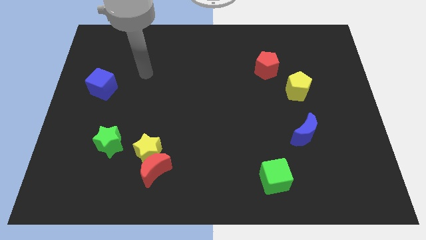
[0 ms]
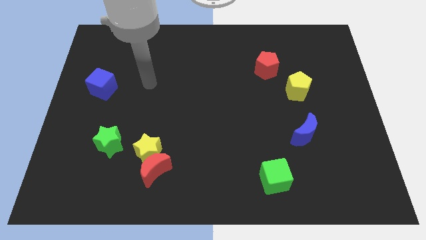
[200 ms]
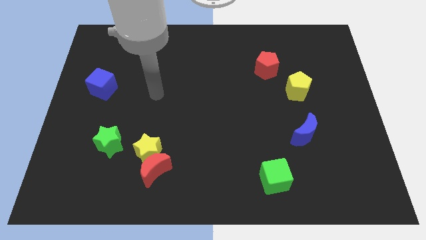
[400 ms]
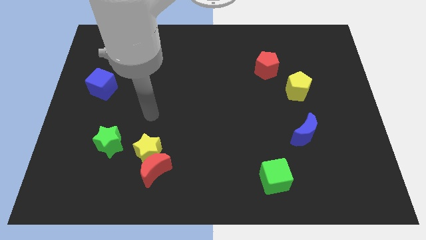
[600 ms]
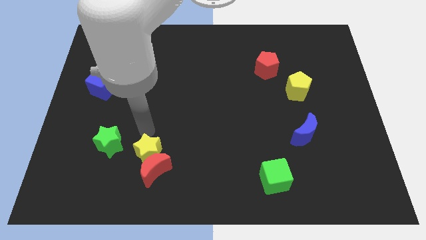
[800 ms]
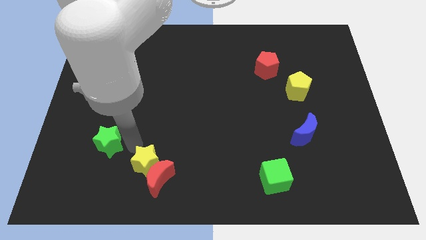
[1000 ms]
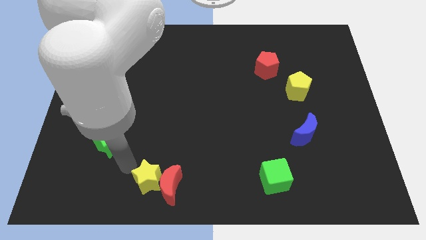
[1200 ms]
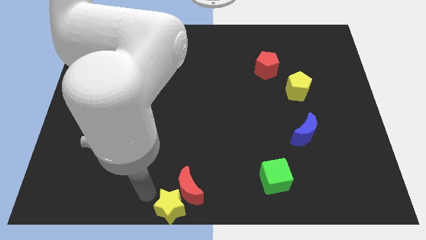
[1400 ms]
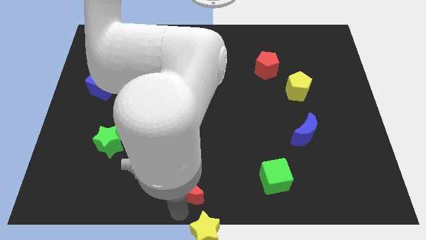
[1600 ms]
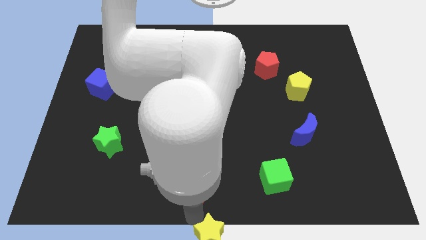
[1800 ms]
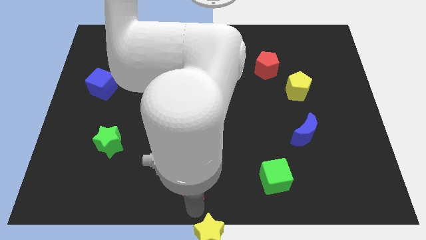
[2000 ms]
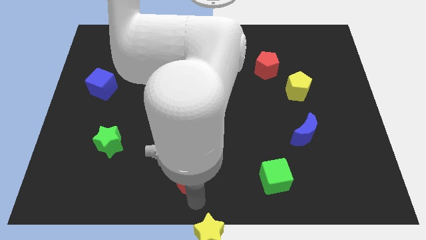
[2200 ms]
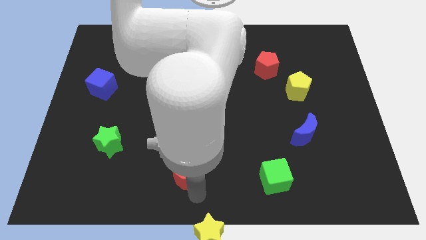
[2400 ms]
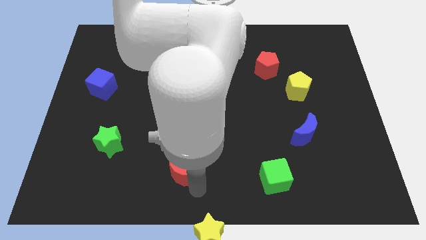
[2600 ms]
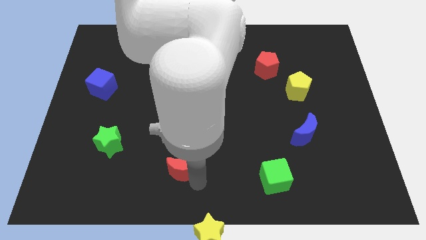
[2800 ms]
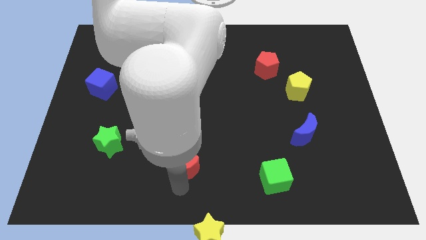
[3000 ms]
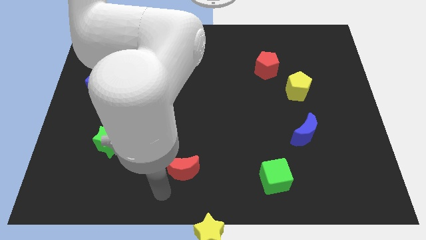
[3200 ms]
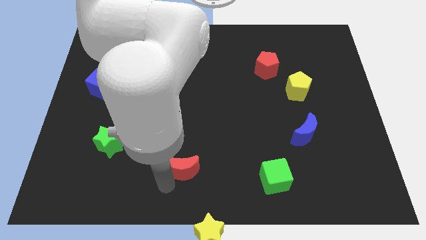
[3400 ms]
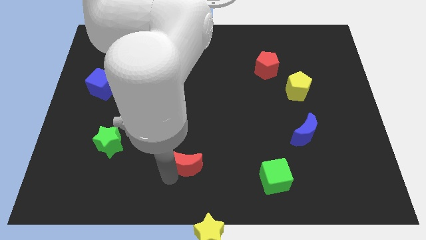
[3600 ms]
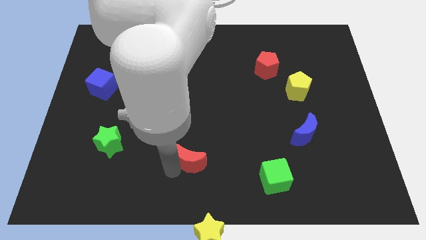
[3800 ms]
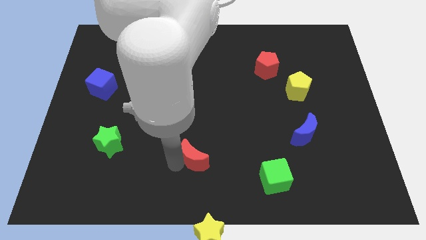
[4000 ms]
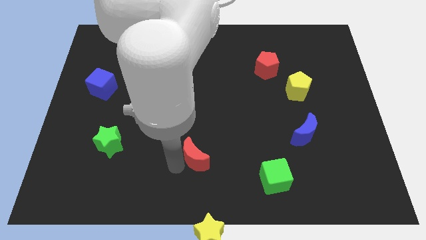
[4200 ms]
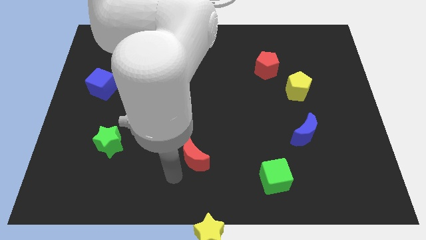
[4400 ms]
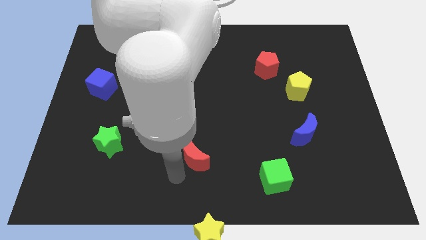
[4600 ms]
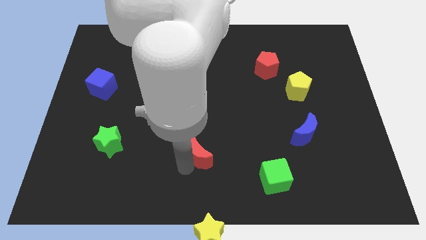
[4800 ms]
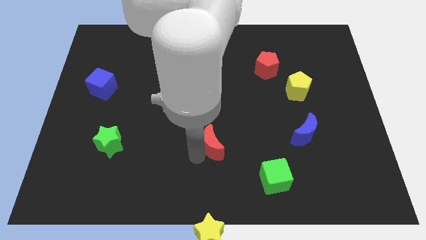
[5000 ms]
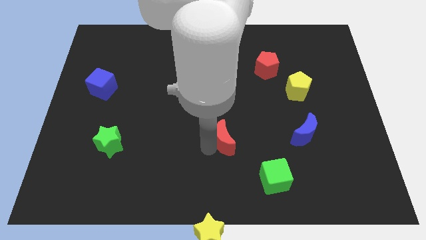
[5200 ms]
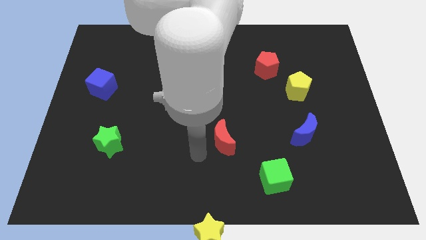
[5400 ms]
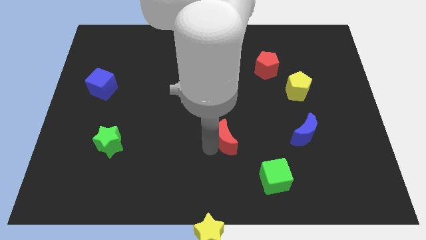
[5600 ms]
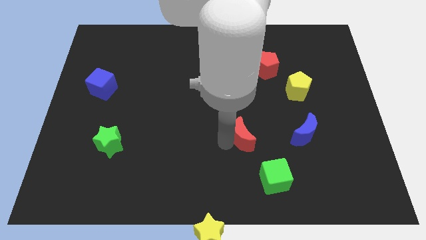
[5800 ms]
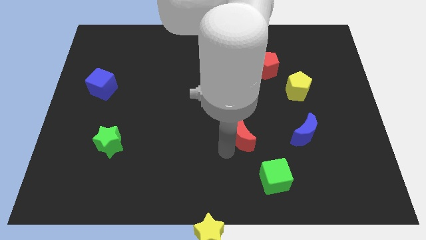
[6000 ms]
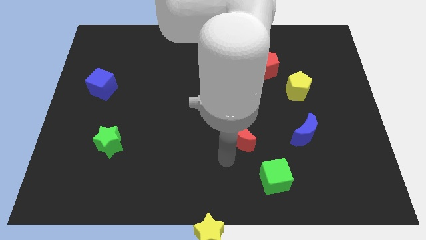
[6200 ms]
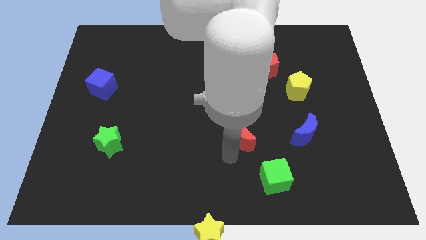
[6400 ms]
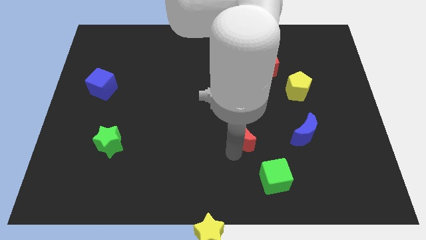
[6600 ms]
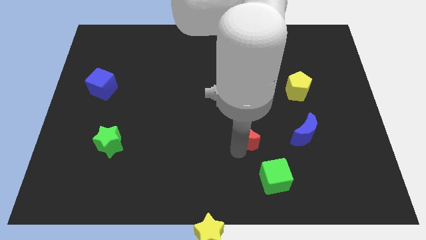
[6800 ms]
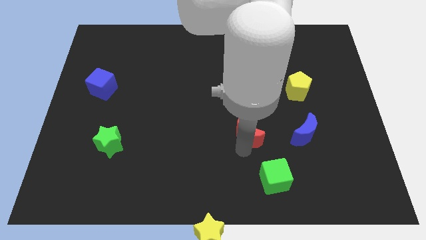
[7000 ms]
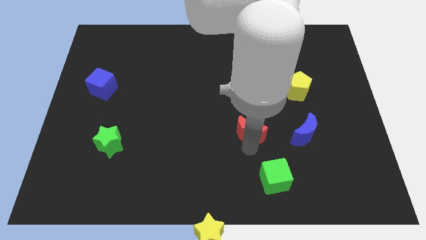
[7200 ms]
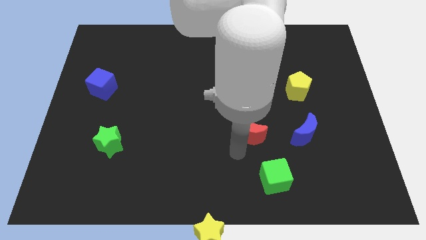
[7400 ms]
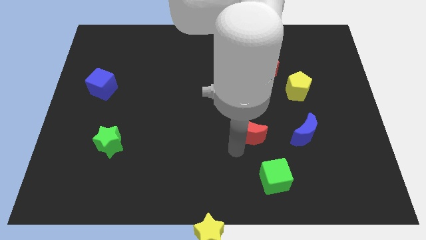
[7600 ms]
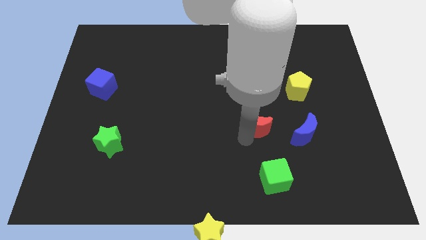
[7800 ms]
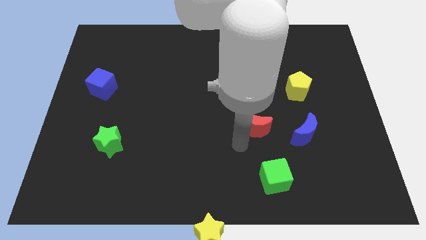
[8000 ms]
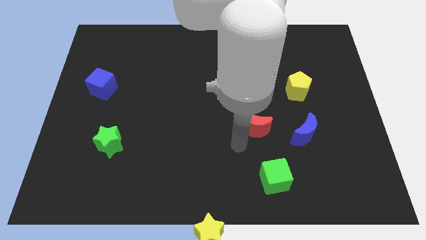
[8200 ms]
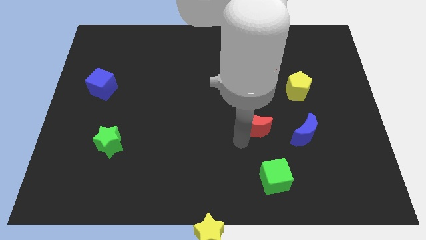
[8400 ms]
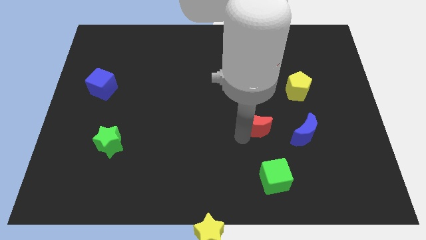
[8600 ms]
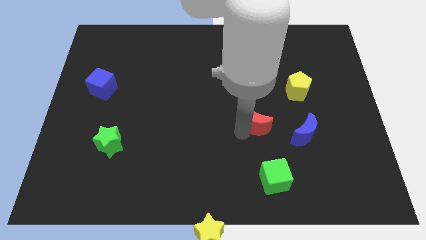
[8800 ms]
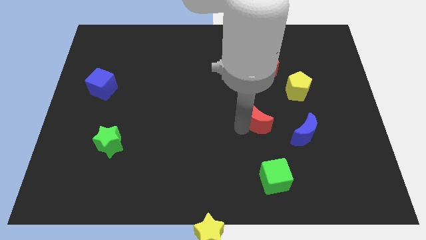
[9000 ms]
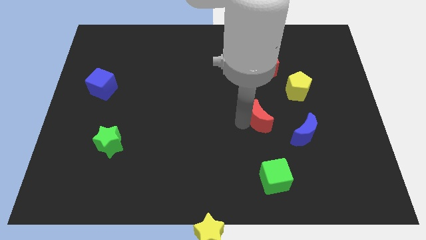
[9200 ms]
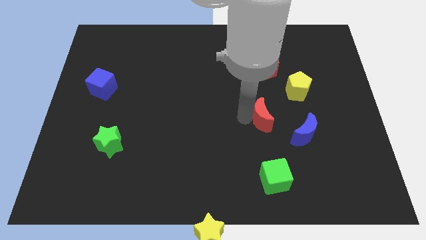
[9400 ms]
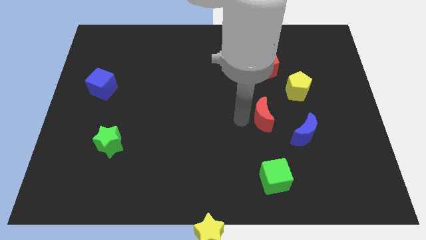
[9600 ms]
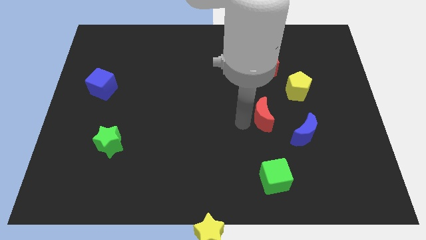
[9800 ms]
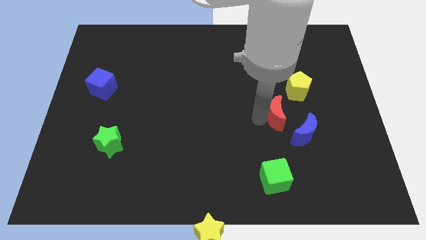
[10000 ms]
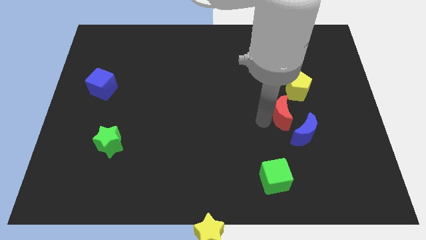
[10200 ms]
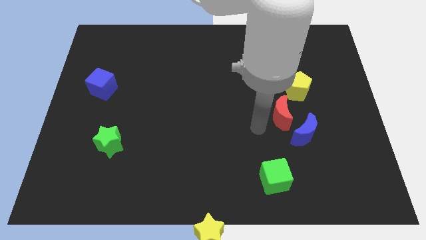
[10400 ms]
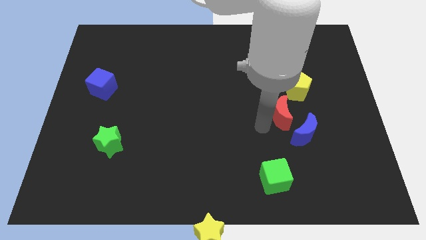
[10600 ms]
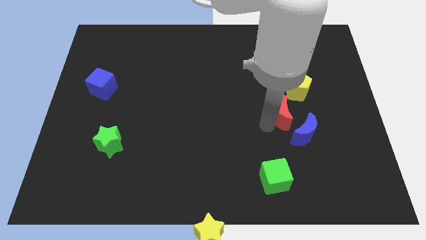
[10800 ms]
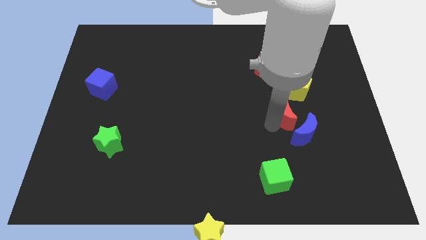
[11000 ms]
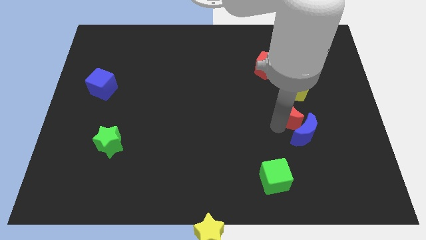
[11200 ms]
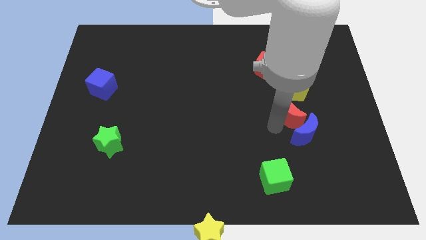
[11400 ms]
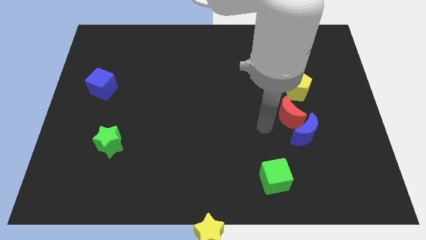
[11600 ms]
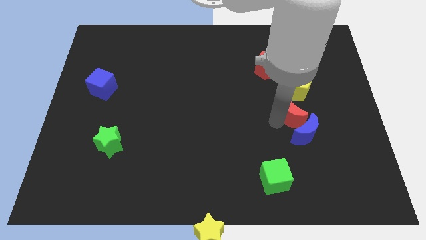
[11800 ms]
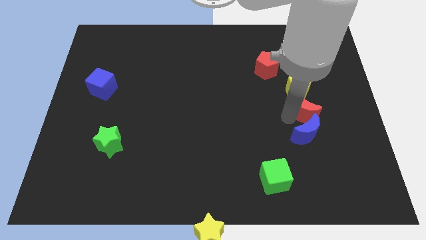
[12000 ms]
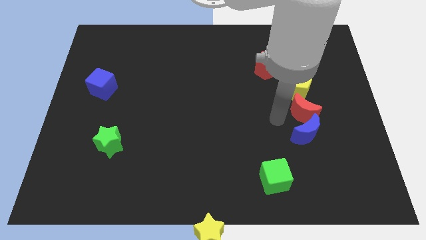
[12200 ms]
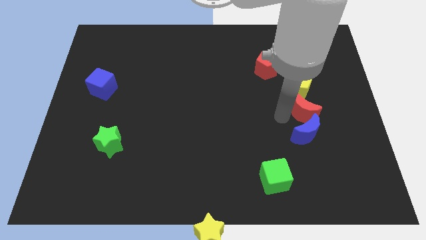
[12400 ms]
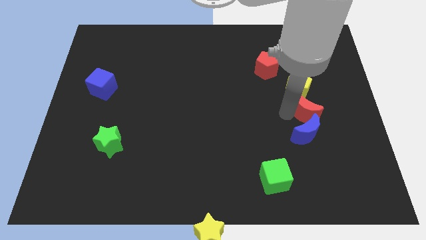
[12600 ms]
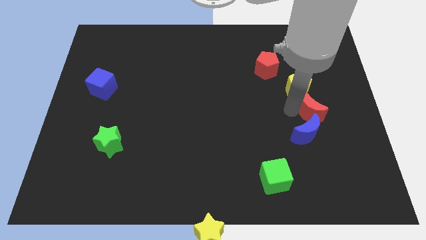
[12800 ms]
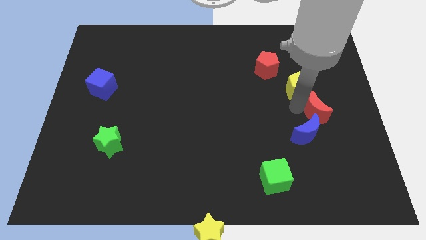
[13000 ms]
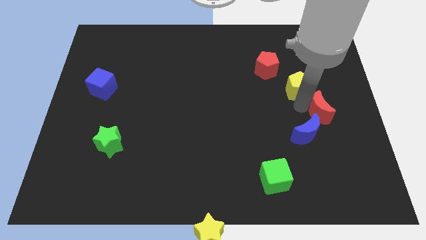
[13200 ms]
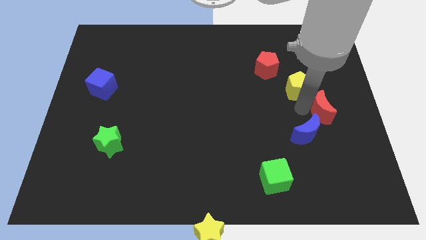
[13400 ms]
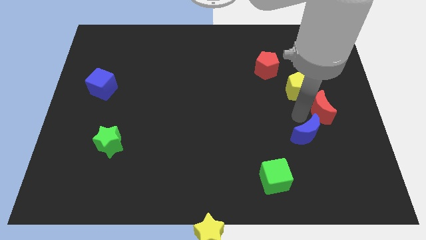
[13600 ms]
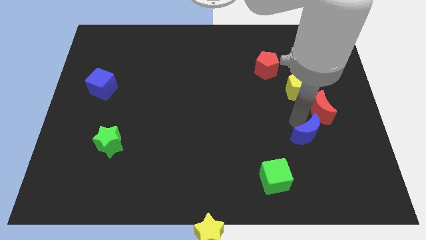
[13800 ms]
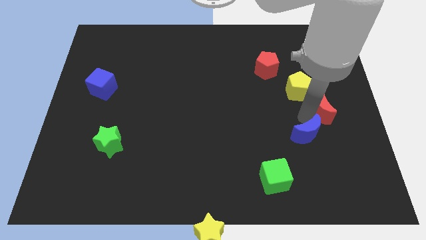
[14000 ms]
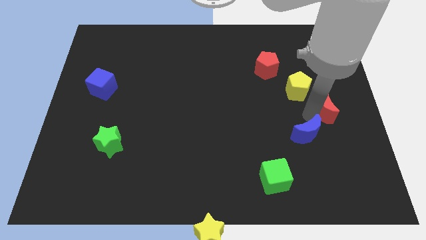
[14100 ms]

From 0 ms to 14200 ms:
slide the red moon to the right side
